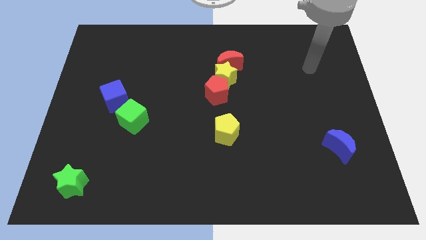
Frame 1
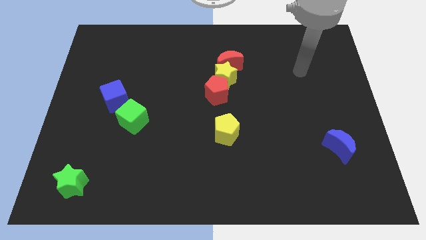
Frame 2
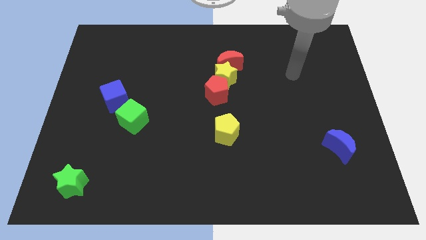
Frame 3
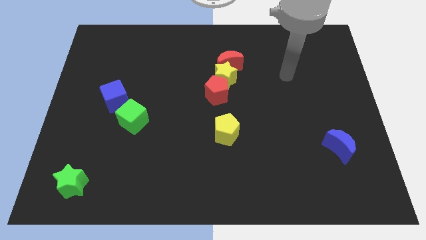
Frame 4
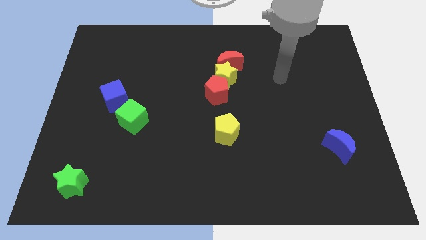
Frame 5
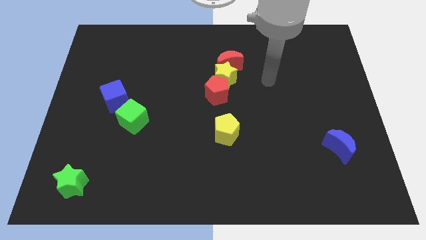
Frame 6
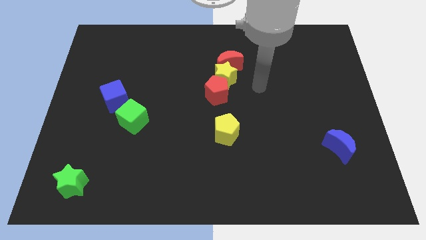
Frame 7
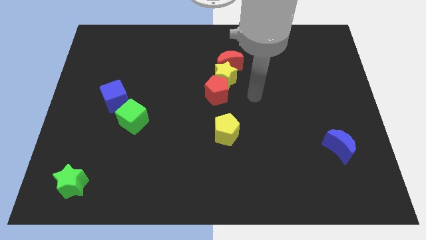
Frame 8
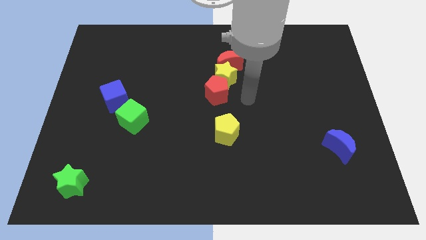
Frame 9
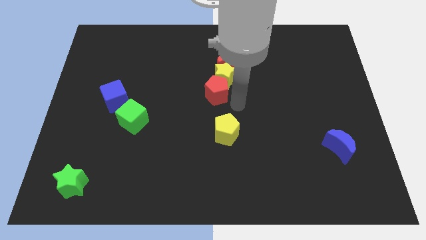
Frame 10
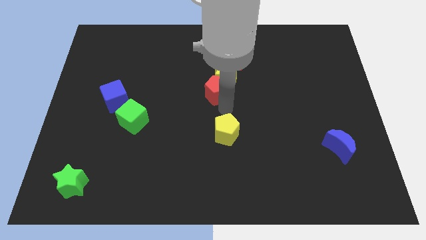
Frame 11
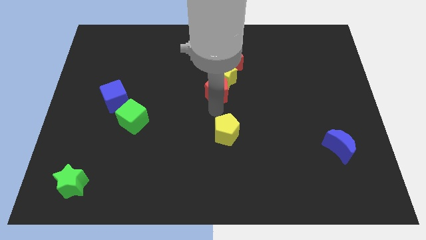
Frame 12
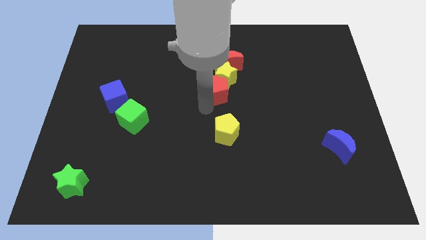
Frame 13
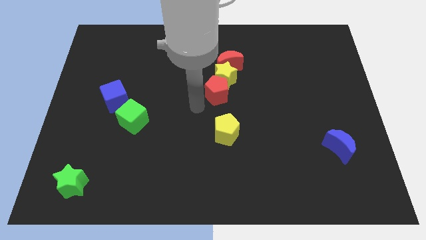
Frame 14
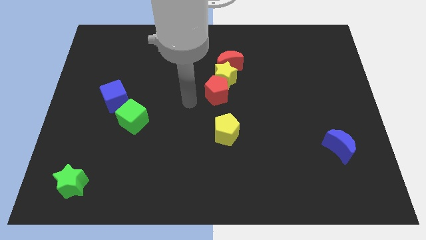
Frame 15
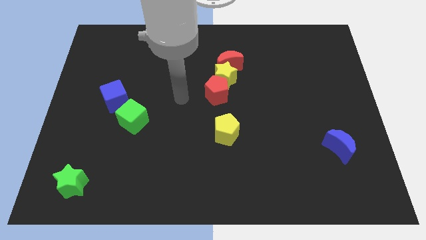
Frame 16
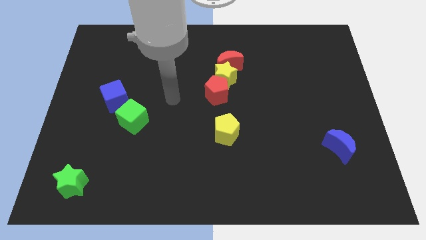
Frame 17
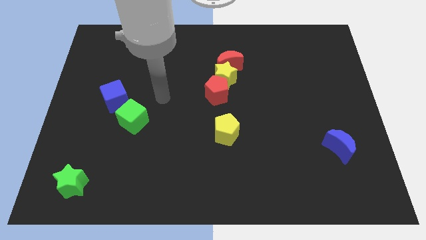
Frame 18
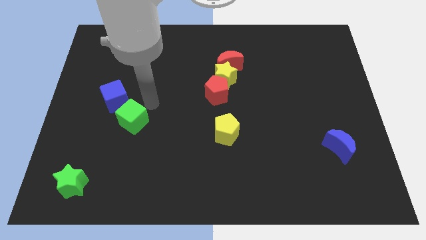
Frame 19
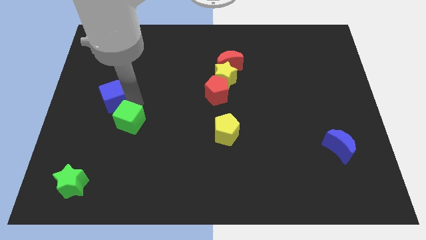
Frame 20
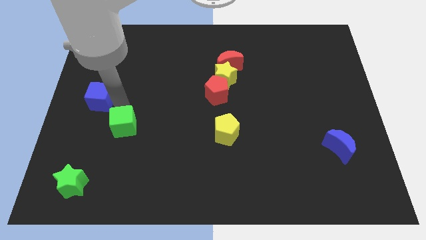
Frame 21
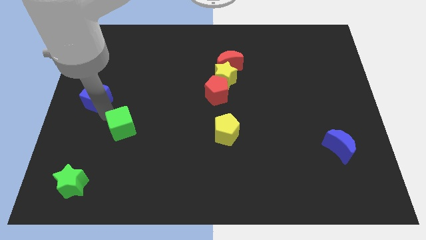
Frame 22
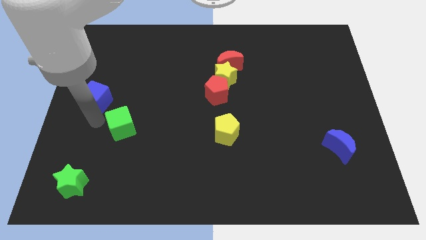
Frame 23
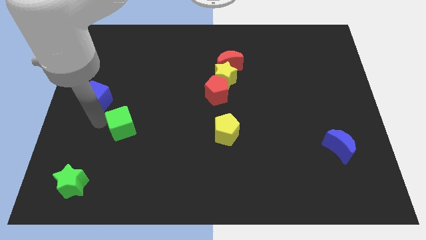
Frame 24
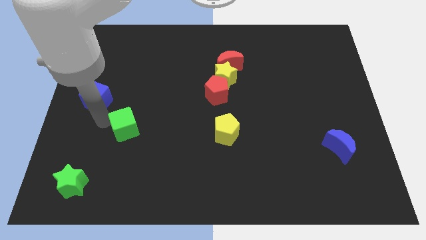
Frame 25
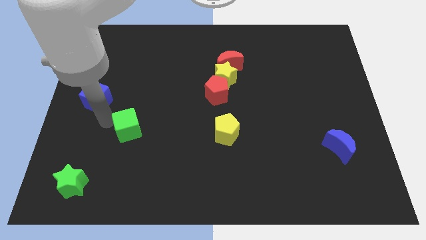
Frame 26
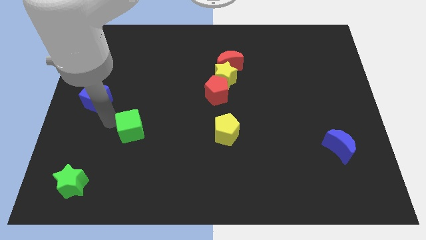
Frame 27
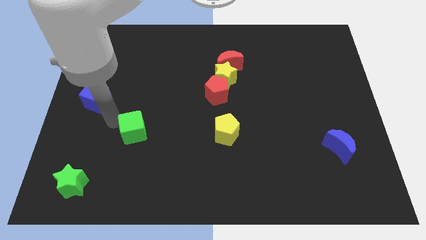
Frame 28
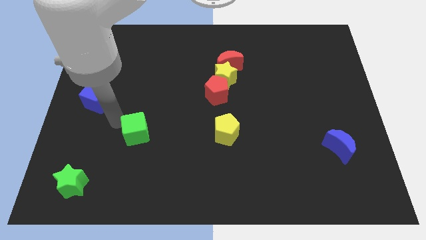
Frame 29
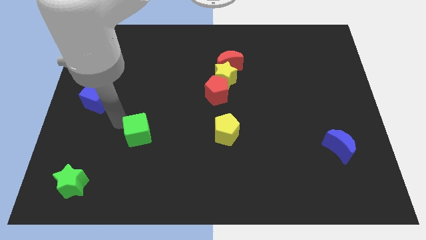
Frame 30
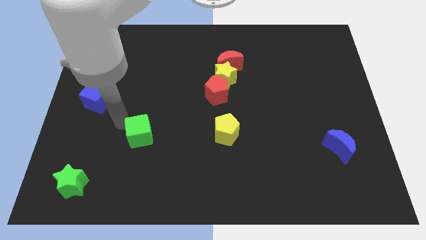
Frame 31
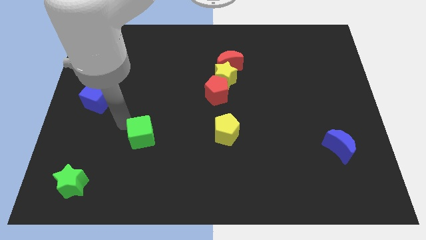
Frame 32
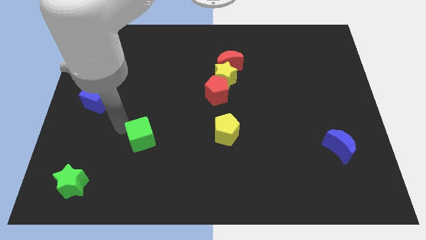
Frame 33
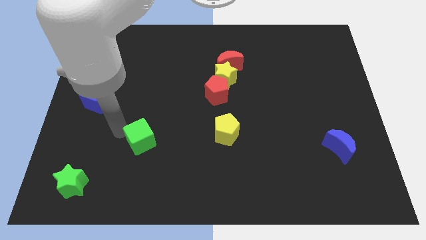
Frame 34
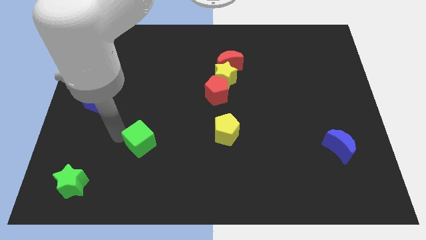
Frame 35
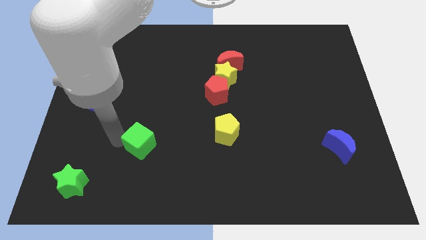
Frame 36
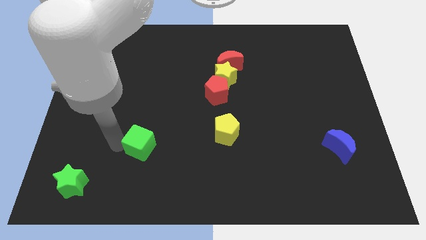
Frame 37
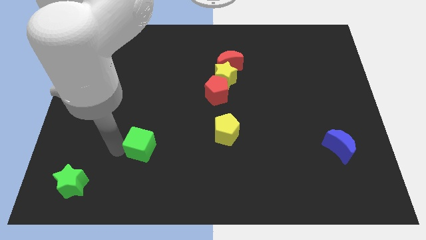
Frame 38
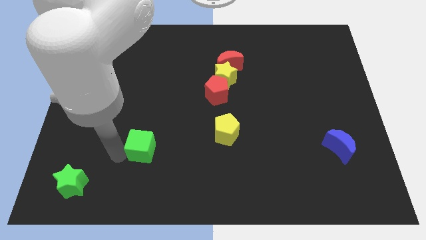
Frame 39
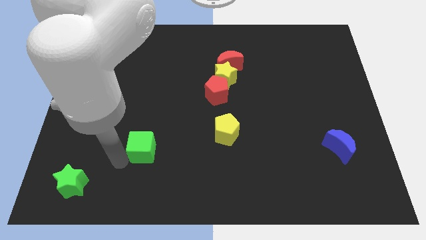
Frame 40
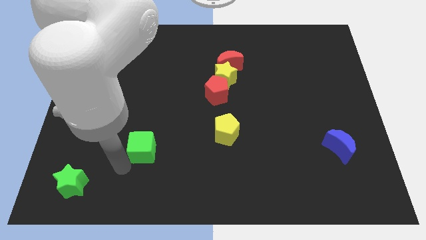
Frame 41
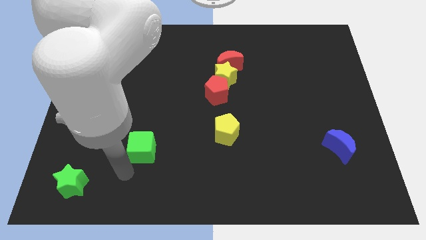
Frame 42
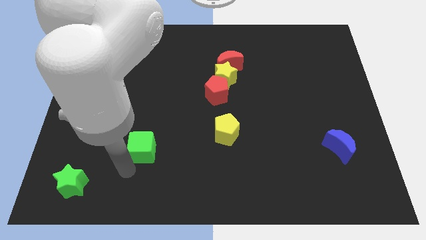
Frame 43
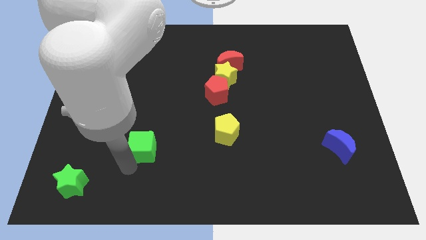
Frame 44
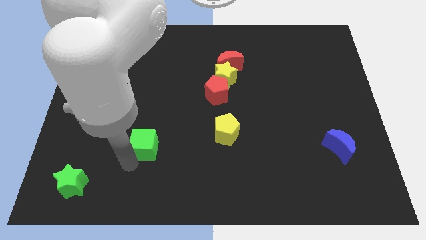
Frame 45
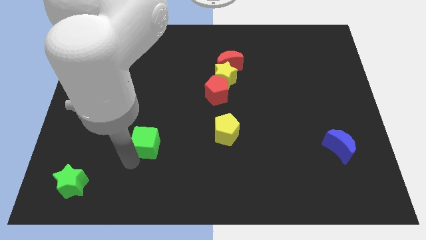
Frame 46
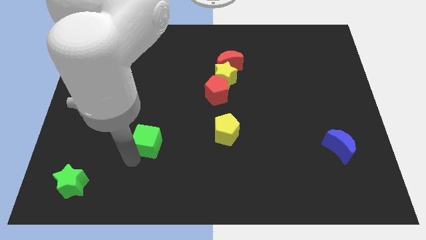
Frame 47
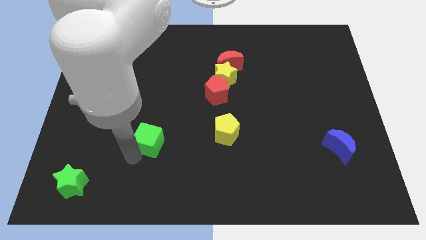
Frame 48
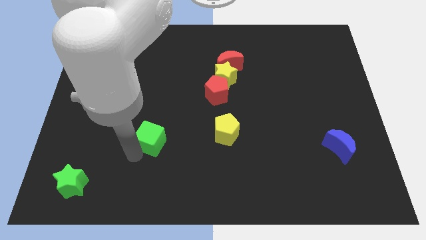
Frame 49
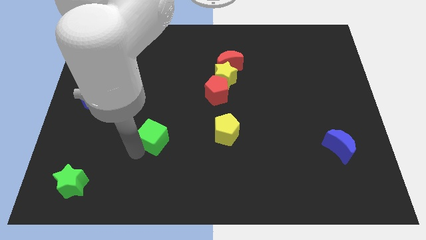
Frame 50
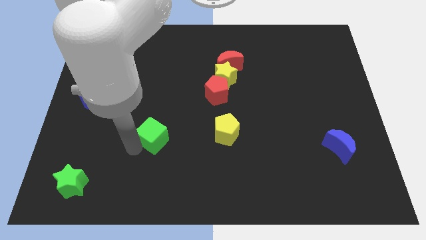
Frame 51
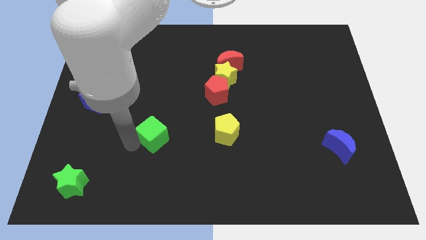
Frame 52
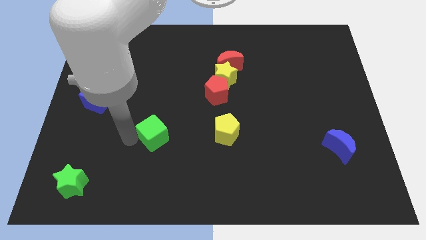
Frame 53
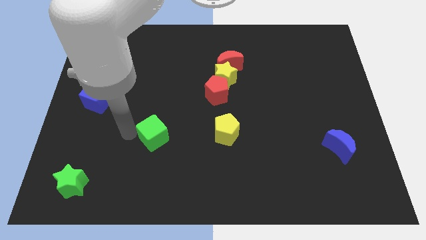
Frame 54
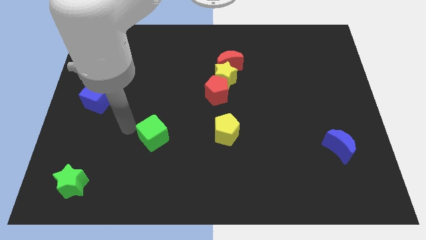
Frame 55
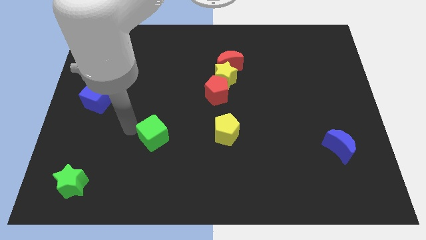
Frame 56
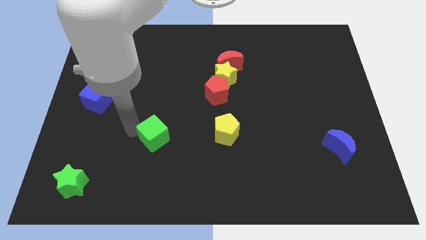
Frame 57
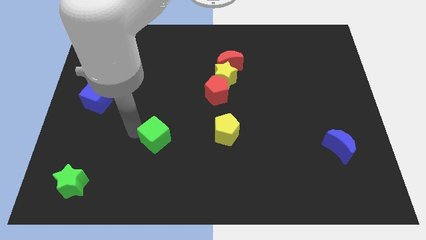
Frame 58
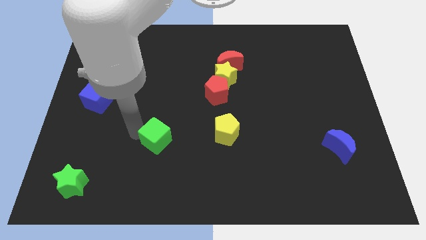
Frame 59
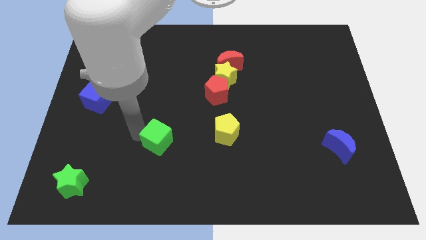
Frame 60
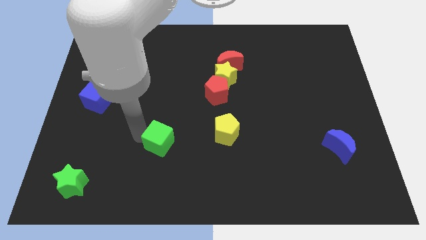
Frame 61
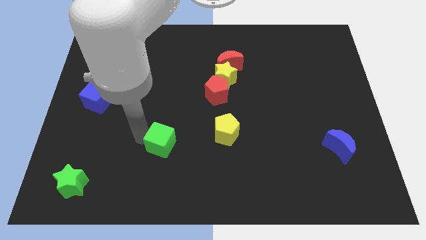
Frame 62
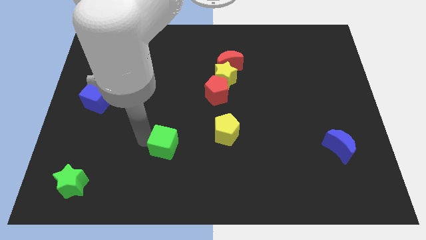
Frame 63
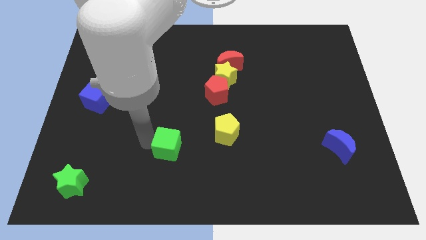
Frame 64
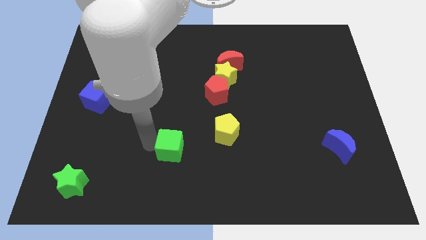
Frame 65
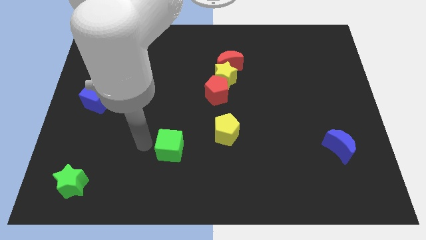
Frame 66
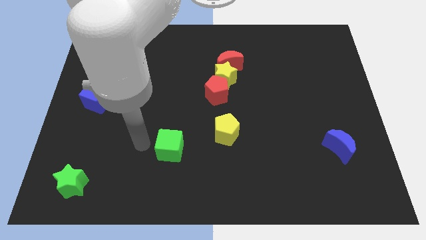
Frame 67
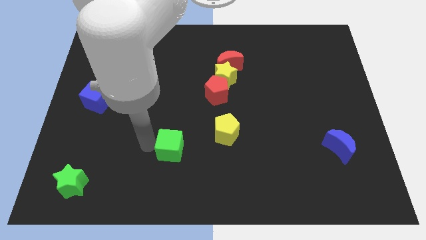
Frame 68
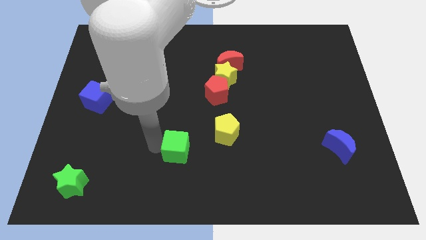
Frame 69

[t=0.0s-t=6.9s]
slide the green cube diagonally down and to the left of the yellow pentagon

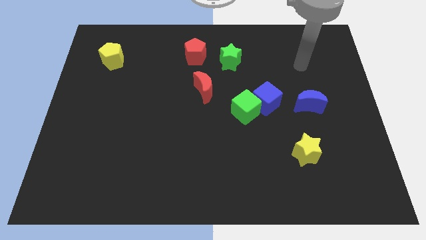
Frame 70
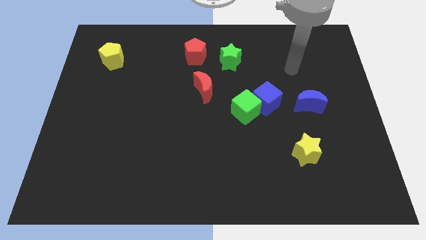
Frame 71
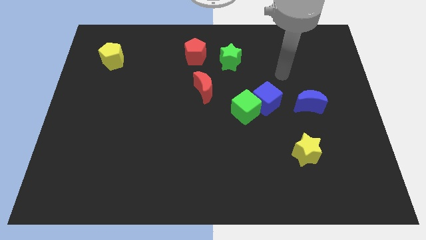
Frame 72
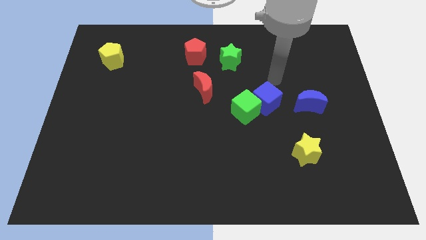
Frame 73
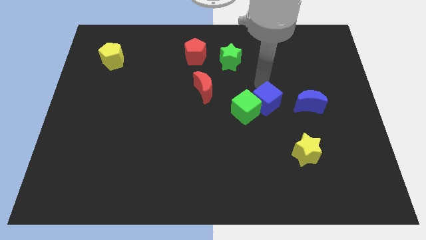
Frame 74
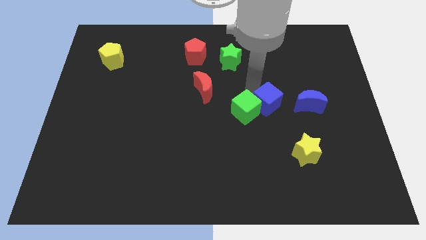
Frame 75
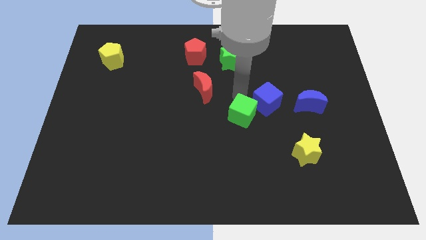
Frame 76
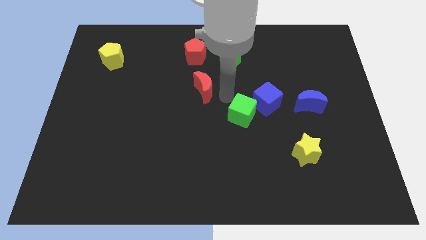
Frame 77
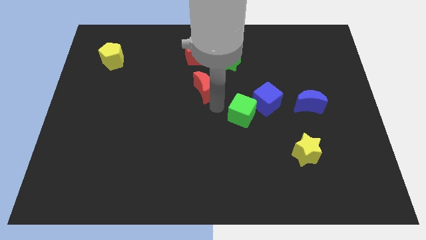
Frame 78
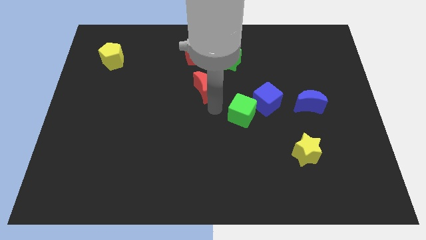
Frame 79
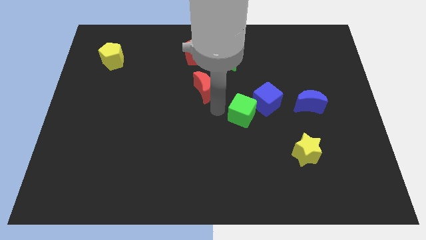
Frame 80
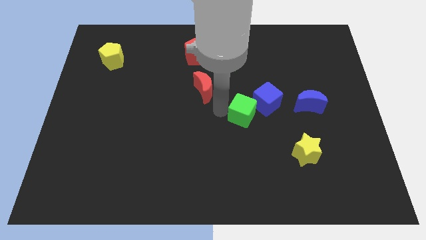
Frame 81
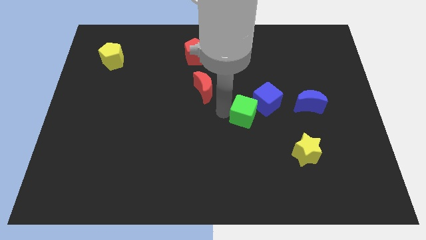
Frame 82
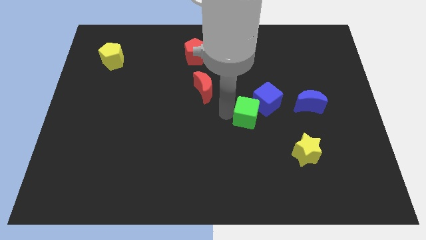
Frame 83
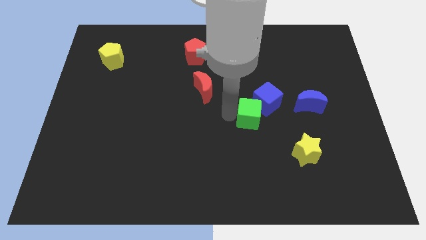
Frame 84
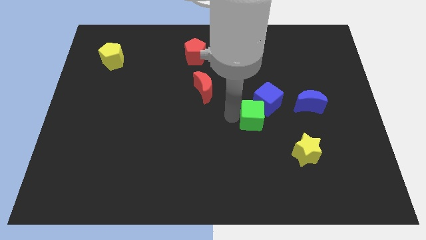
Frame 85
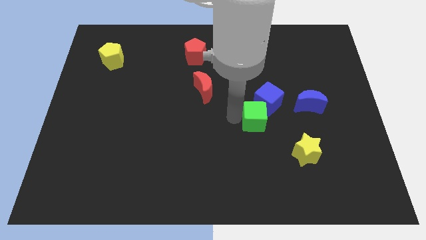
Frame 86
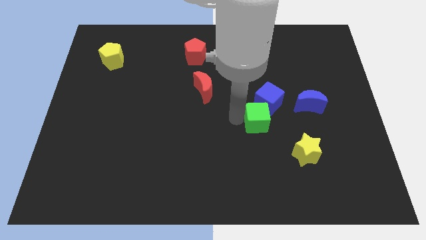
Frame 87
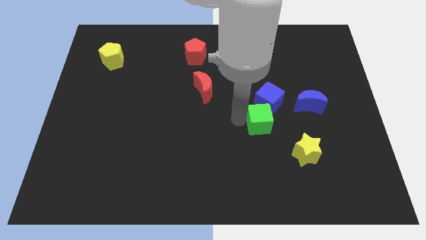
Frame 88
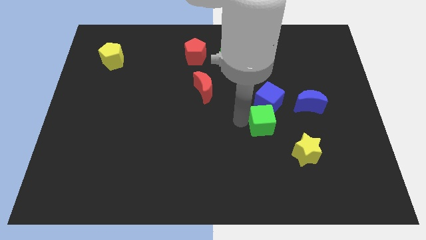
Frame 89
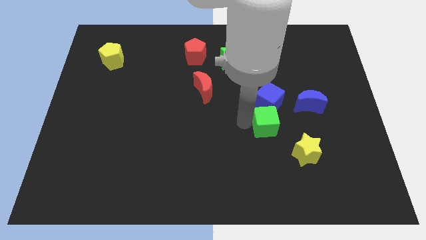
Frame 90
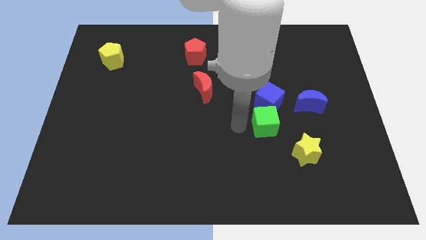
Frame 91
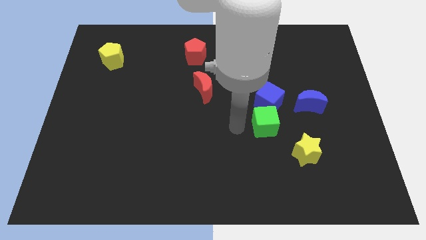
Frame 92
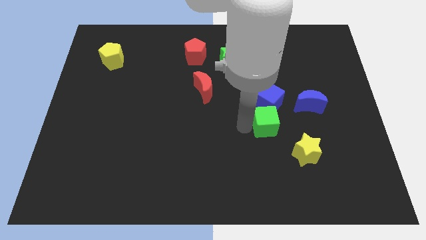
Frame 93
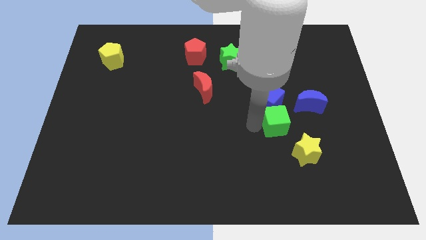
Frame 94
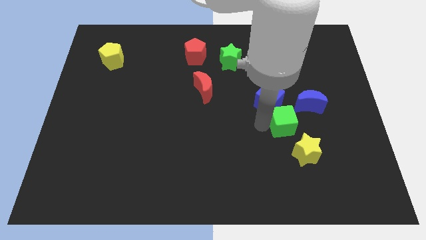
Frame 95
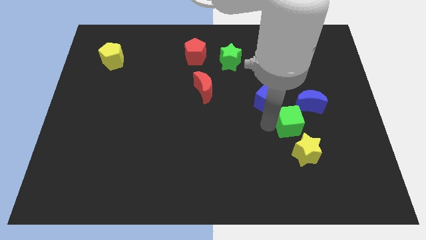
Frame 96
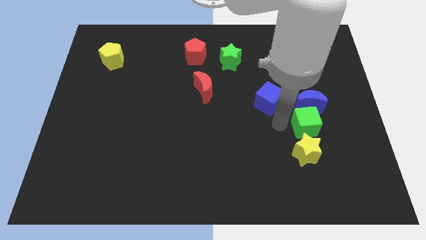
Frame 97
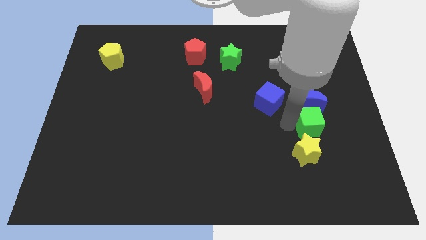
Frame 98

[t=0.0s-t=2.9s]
put the green cube to the bottom right side of the blue moon
